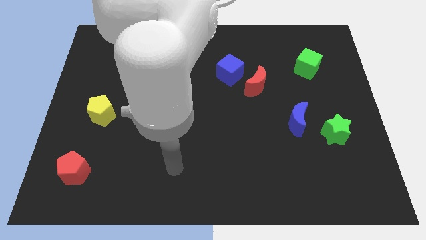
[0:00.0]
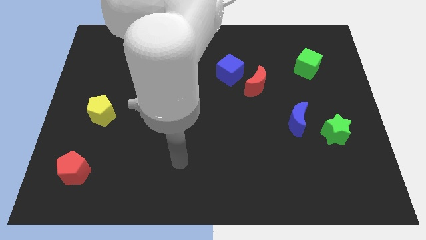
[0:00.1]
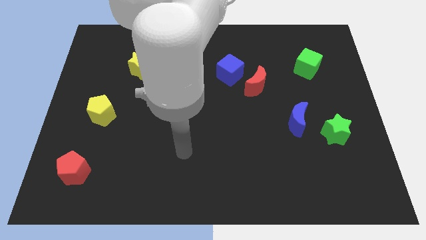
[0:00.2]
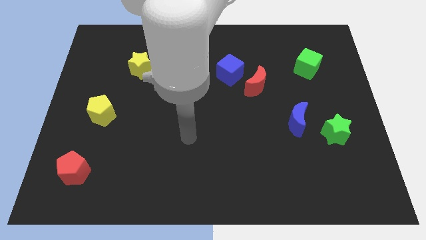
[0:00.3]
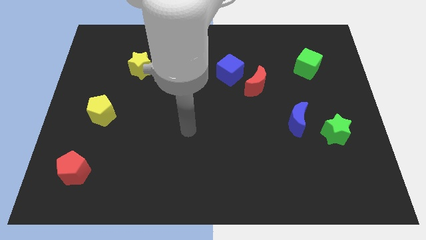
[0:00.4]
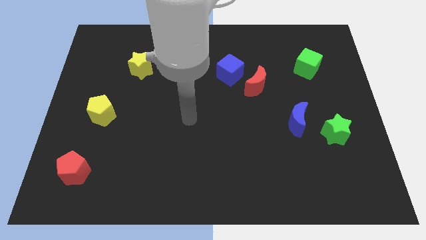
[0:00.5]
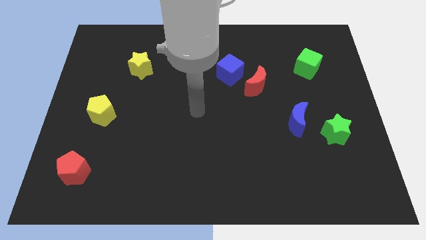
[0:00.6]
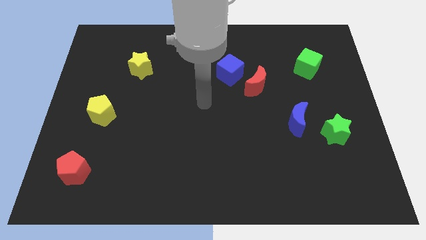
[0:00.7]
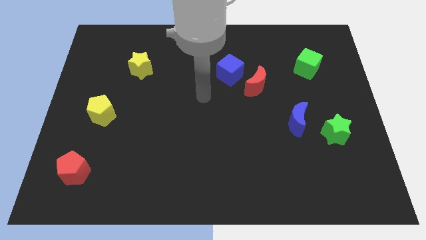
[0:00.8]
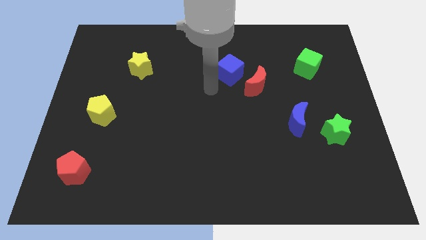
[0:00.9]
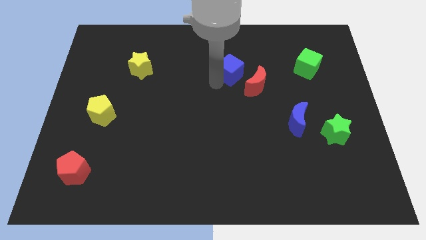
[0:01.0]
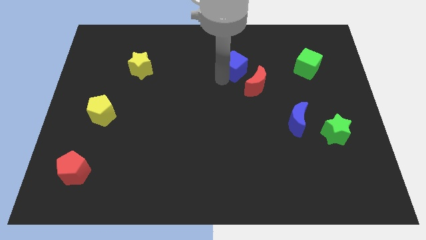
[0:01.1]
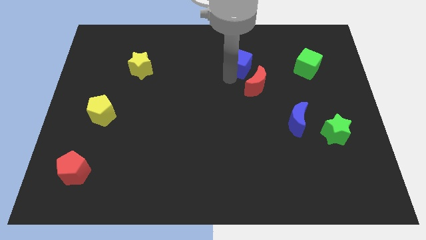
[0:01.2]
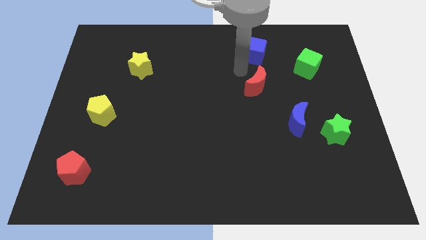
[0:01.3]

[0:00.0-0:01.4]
move the red moon away from the blue cube

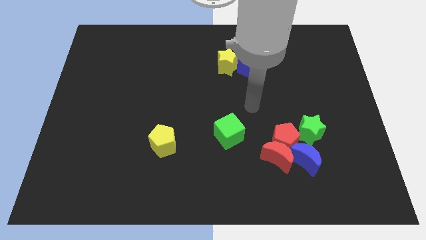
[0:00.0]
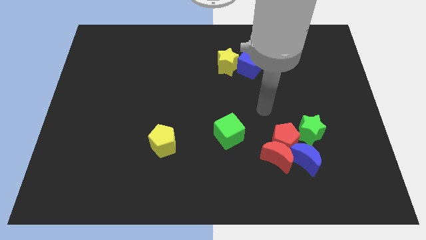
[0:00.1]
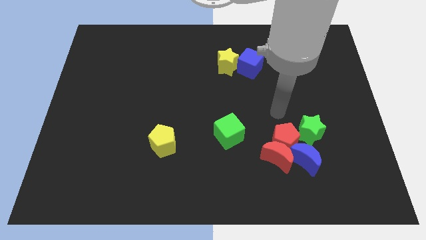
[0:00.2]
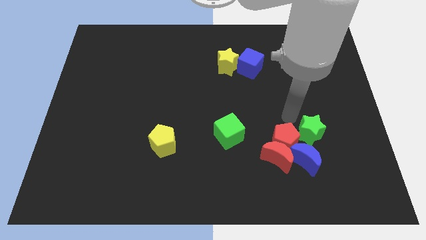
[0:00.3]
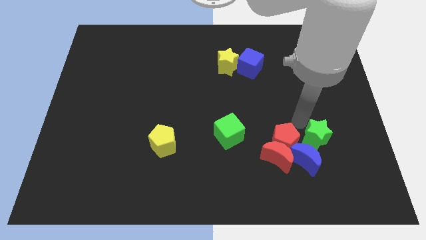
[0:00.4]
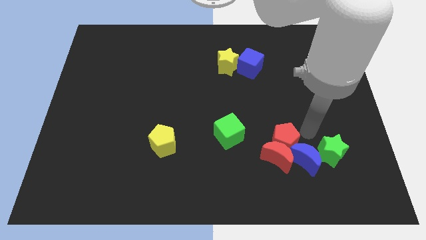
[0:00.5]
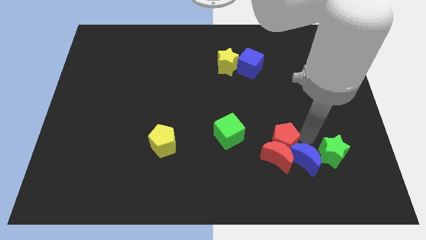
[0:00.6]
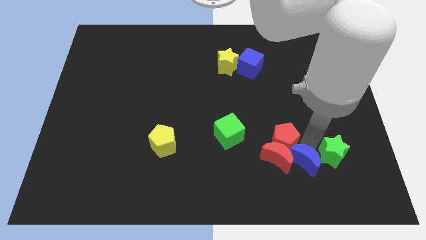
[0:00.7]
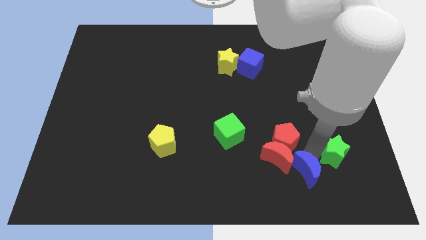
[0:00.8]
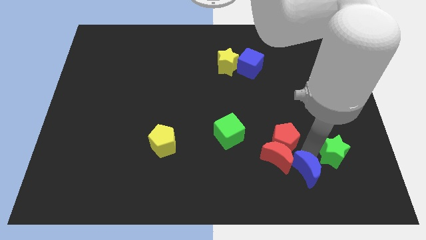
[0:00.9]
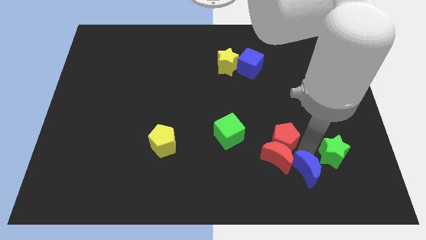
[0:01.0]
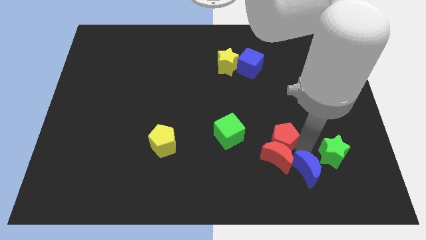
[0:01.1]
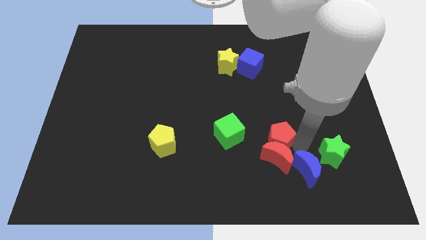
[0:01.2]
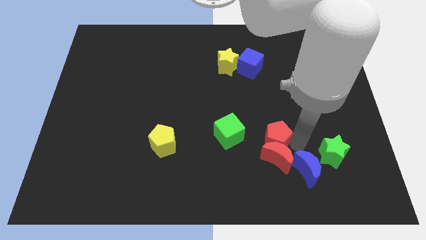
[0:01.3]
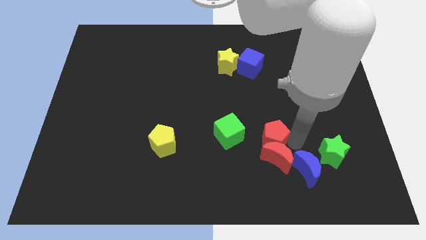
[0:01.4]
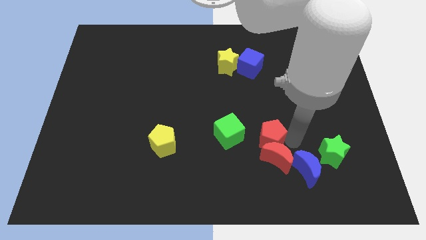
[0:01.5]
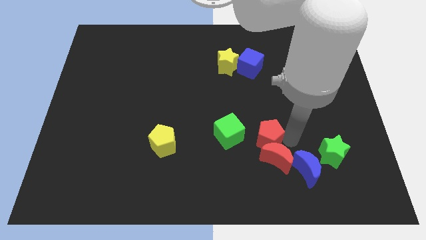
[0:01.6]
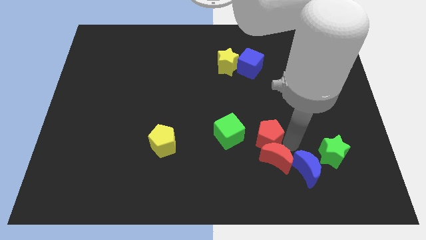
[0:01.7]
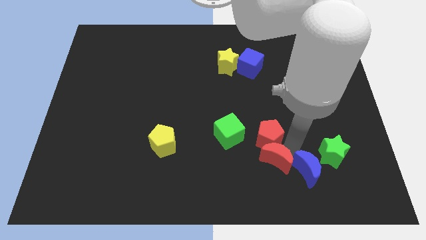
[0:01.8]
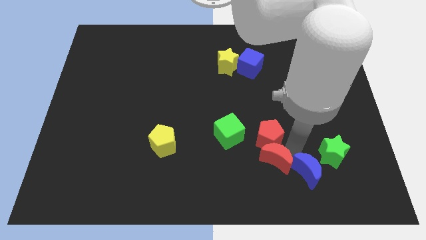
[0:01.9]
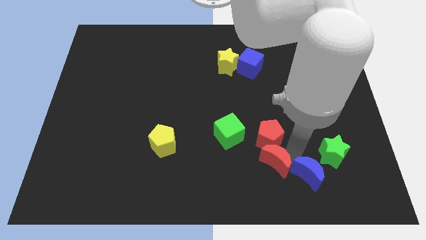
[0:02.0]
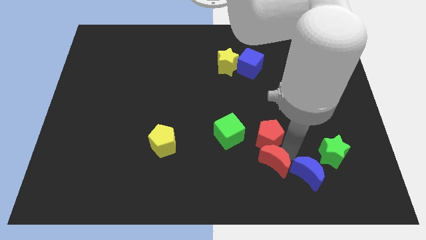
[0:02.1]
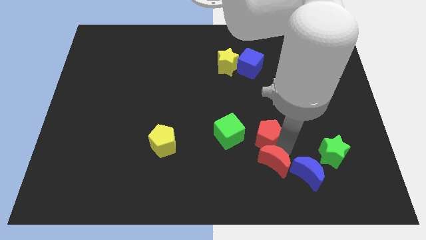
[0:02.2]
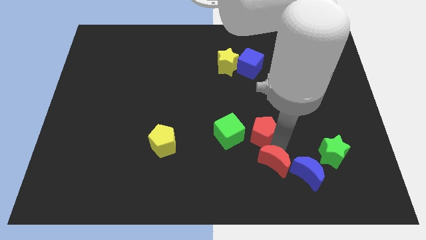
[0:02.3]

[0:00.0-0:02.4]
move the red pentagon away from the red moon, blue moon, and green star

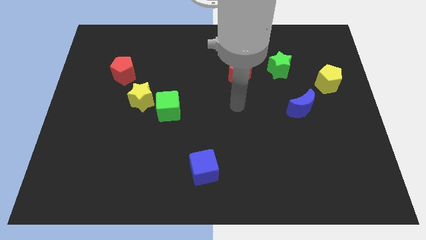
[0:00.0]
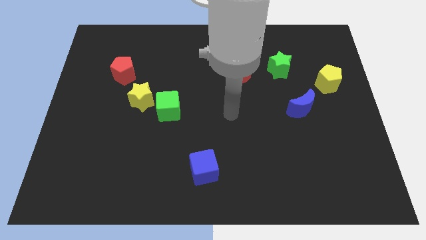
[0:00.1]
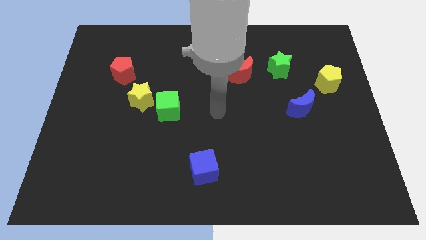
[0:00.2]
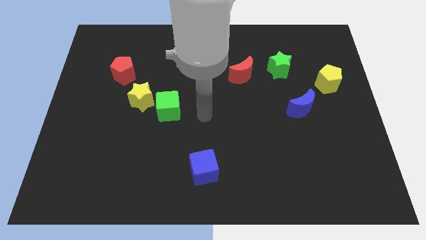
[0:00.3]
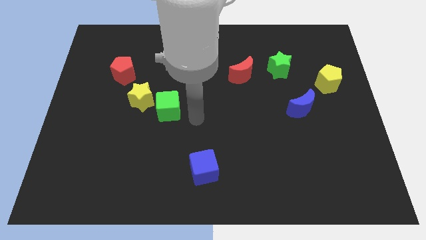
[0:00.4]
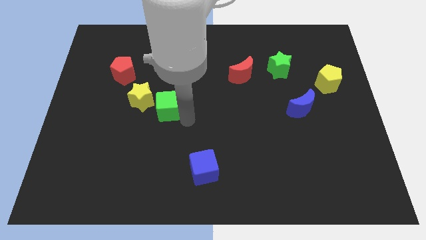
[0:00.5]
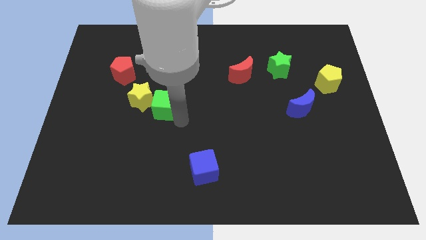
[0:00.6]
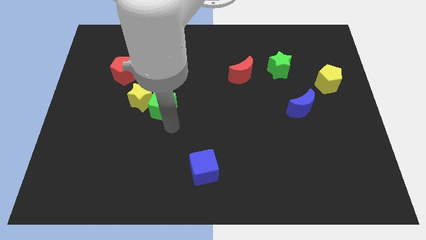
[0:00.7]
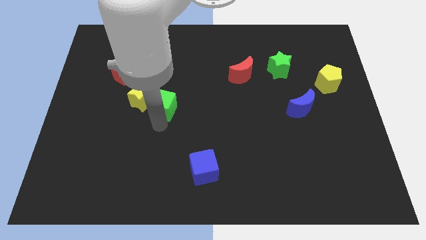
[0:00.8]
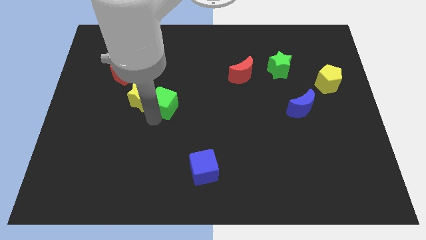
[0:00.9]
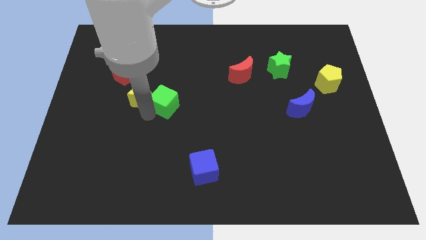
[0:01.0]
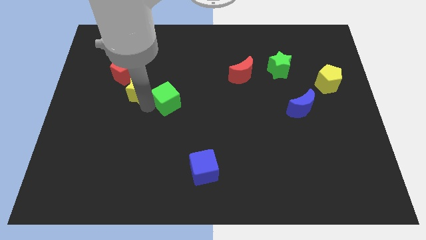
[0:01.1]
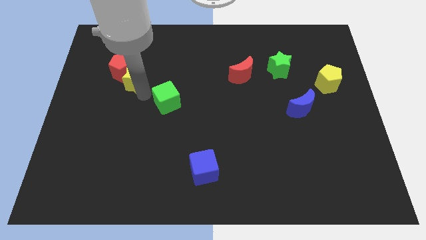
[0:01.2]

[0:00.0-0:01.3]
pull the green cube apart from the yellow star

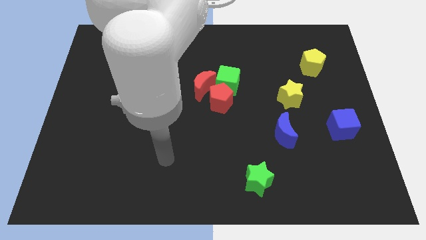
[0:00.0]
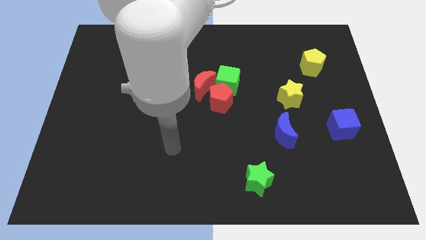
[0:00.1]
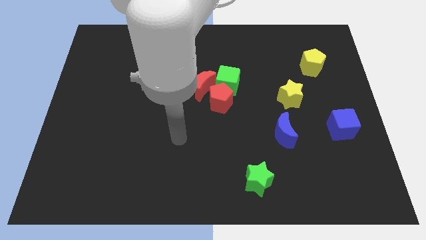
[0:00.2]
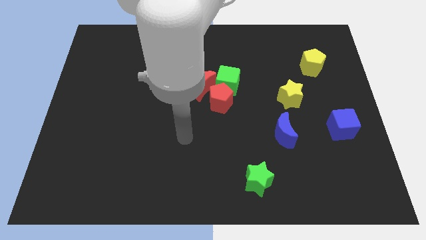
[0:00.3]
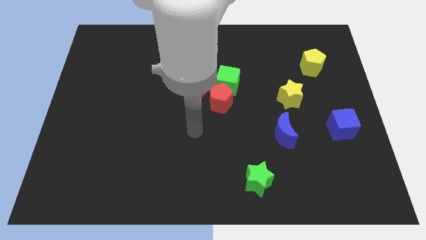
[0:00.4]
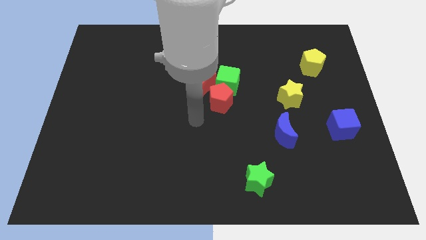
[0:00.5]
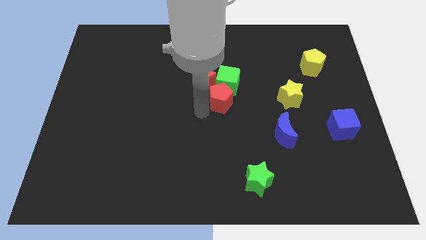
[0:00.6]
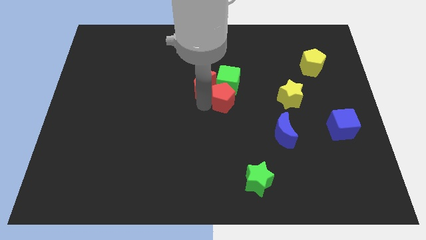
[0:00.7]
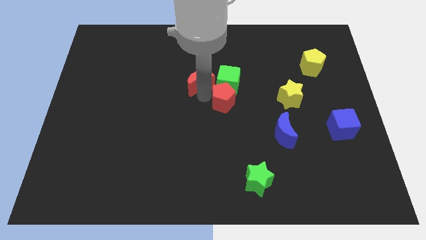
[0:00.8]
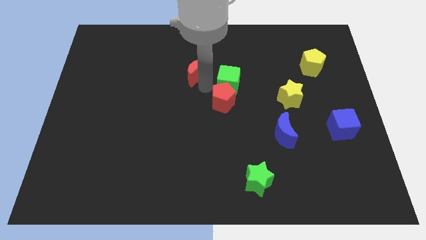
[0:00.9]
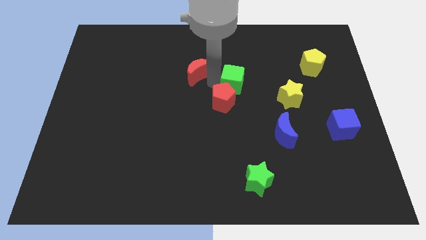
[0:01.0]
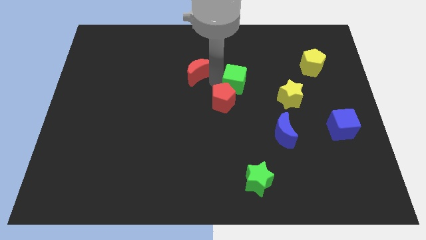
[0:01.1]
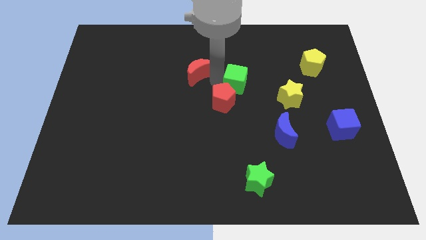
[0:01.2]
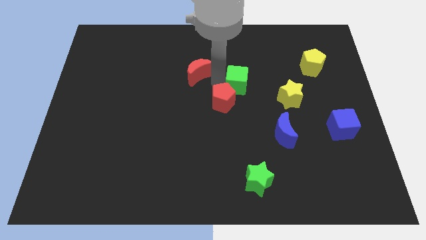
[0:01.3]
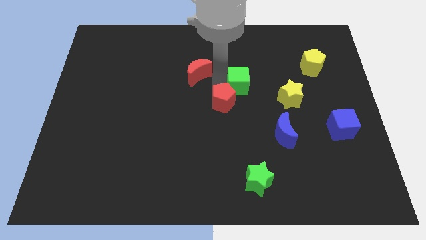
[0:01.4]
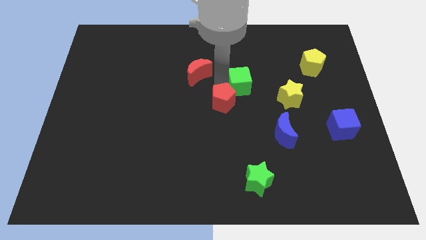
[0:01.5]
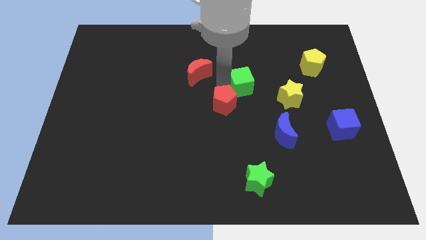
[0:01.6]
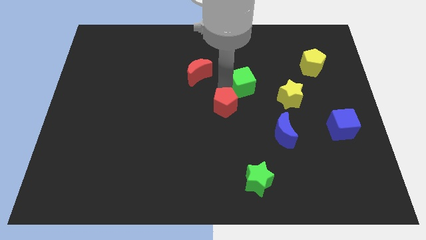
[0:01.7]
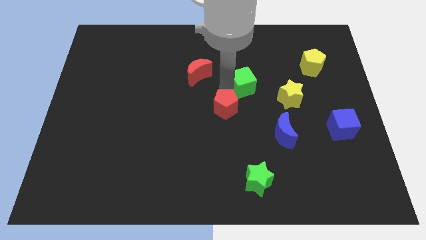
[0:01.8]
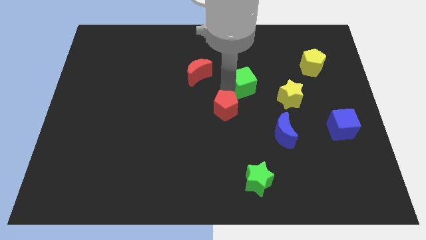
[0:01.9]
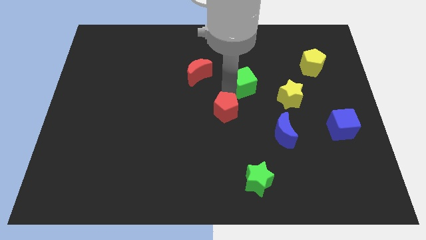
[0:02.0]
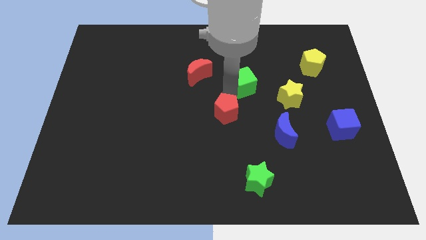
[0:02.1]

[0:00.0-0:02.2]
move the red pentagon away from the green cube and red moon

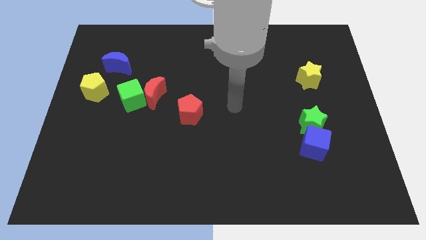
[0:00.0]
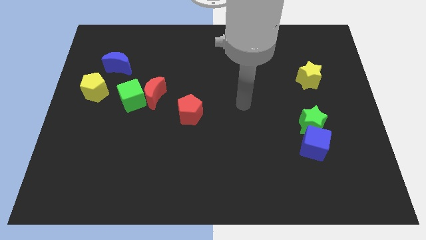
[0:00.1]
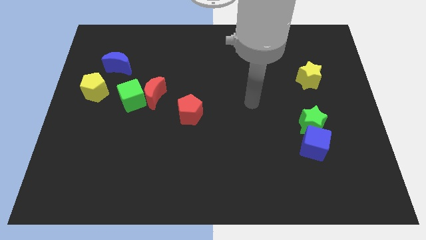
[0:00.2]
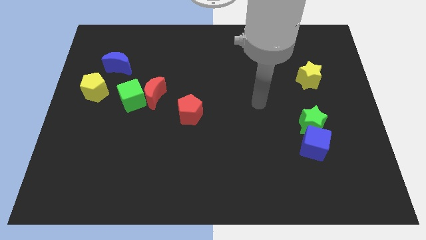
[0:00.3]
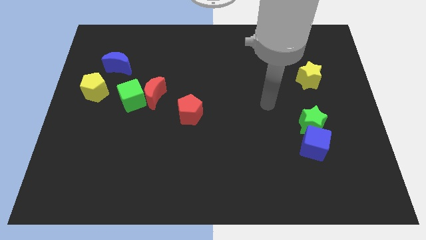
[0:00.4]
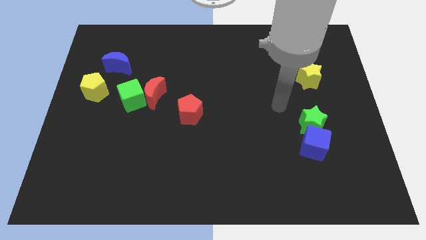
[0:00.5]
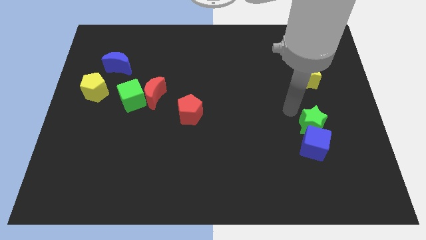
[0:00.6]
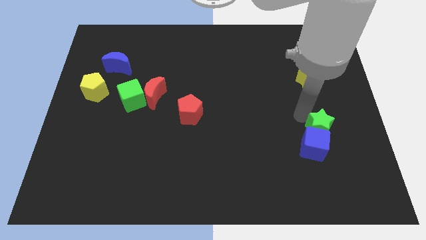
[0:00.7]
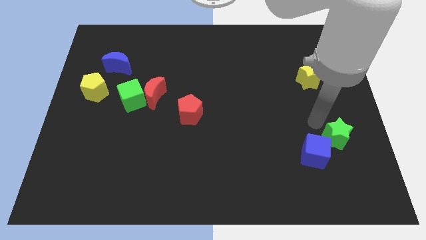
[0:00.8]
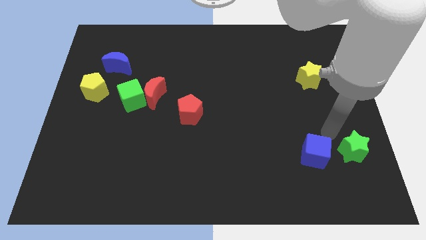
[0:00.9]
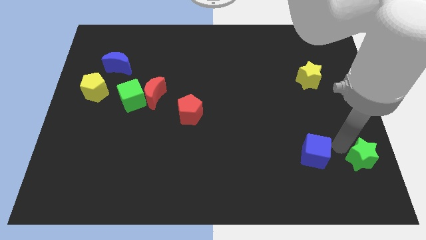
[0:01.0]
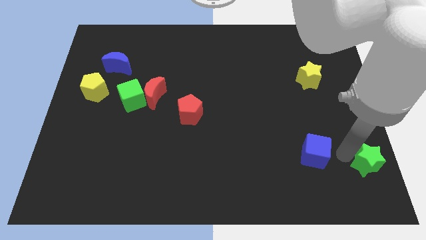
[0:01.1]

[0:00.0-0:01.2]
pull the blue cube apart from the green star

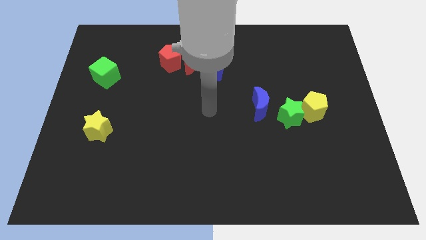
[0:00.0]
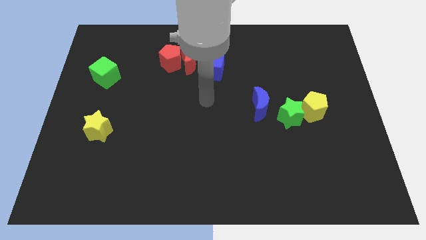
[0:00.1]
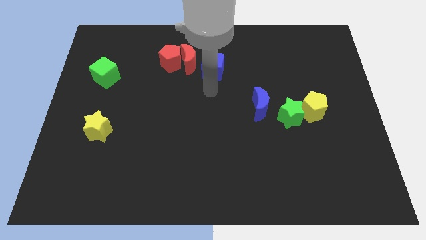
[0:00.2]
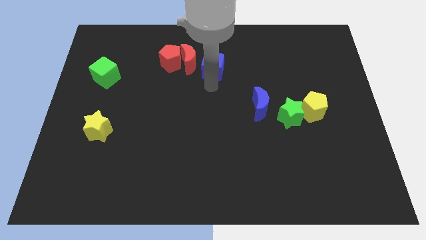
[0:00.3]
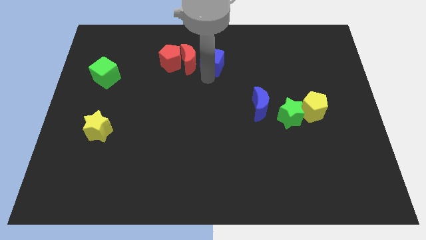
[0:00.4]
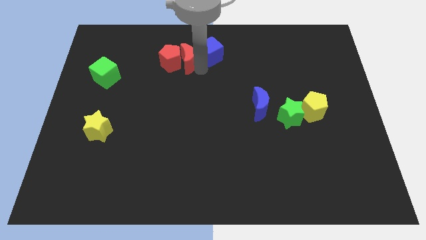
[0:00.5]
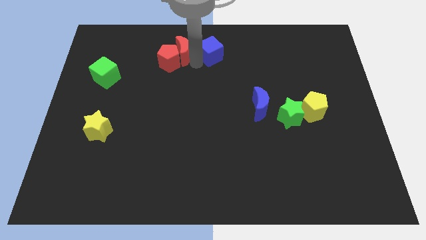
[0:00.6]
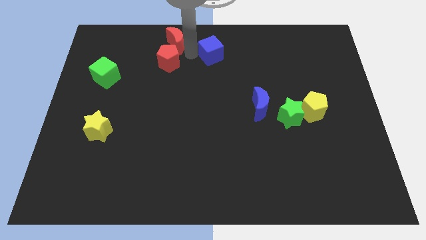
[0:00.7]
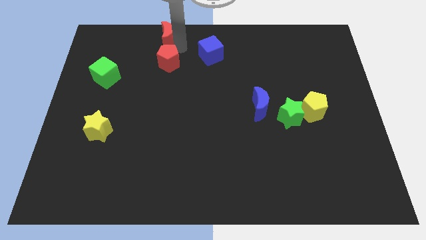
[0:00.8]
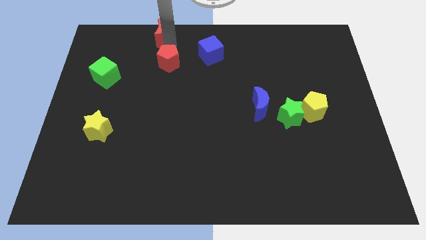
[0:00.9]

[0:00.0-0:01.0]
separate the red pentagon from the red moon
